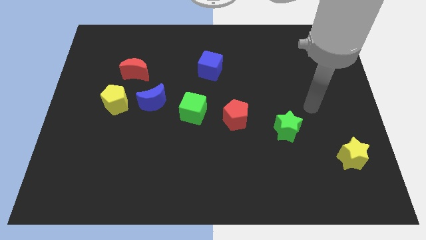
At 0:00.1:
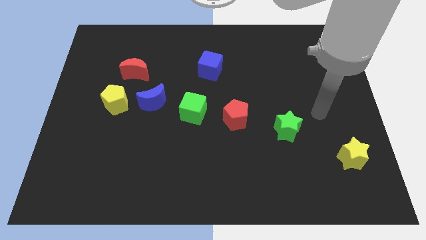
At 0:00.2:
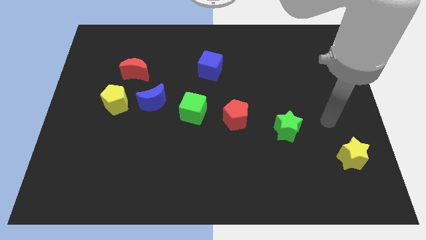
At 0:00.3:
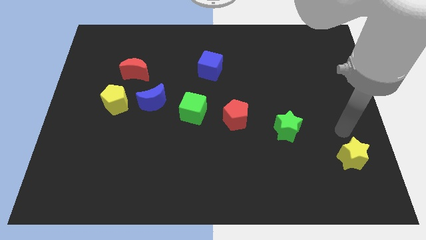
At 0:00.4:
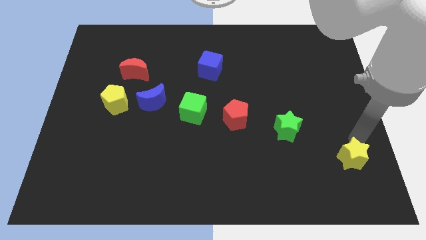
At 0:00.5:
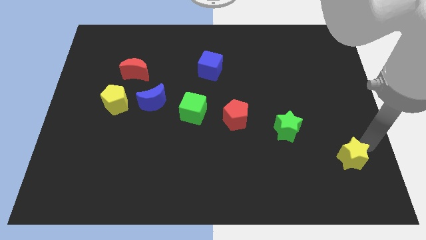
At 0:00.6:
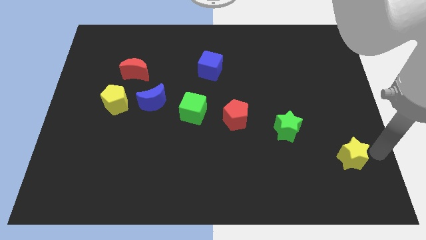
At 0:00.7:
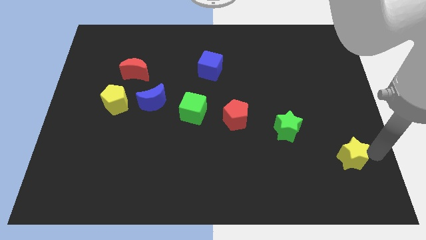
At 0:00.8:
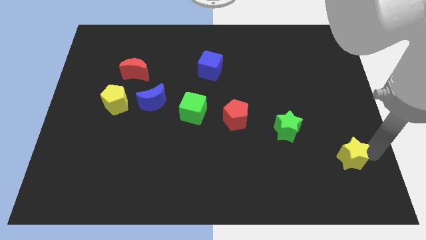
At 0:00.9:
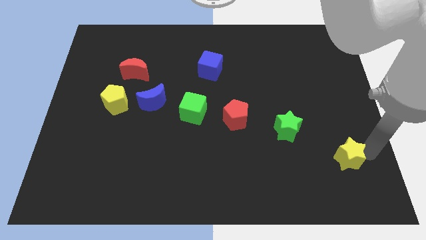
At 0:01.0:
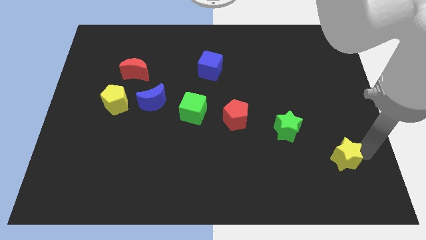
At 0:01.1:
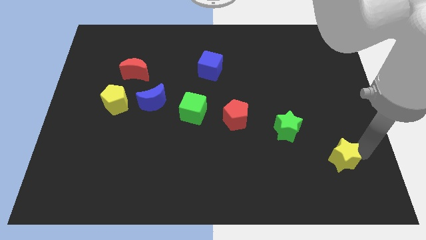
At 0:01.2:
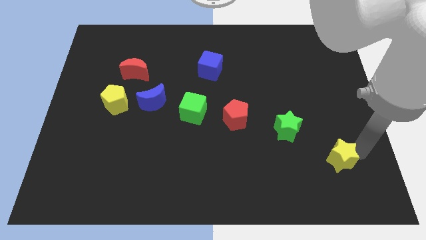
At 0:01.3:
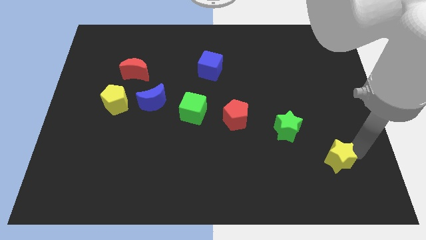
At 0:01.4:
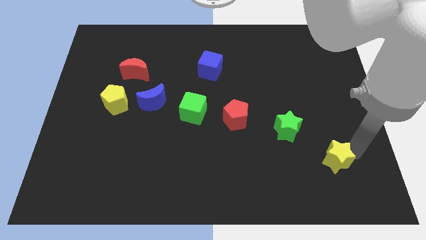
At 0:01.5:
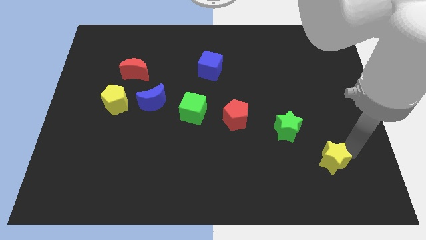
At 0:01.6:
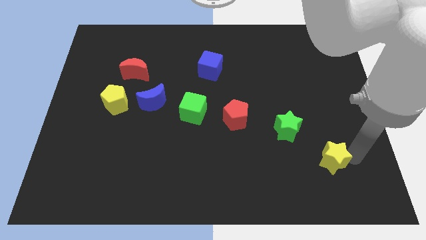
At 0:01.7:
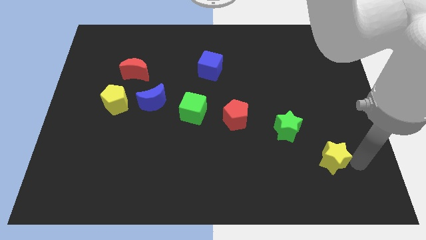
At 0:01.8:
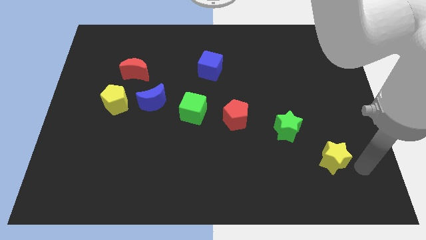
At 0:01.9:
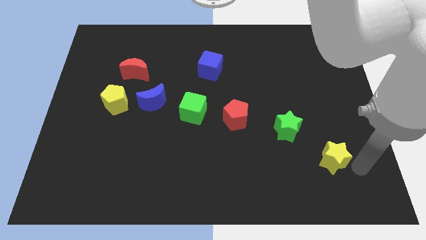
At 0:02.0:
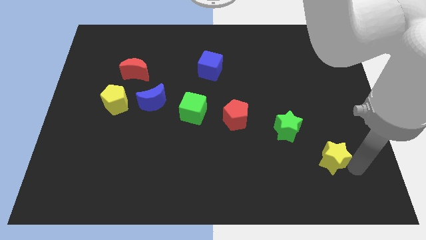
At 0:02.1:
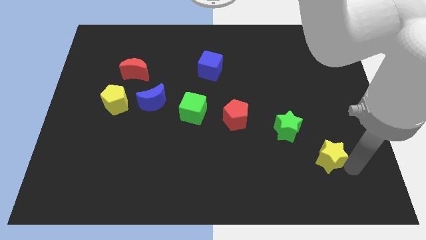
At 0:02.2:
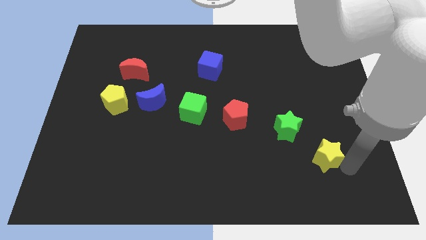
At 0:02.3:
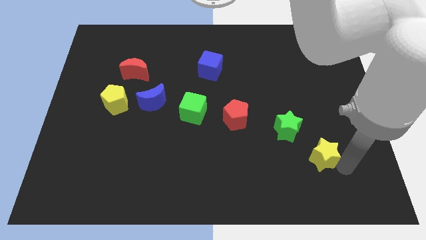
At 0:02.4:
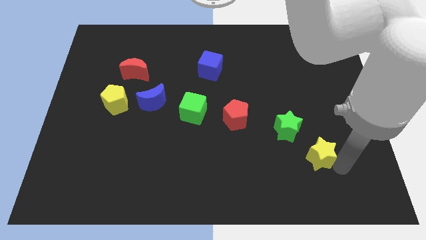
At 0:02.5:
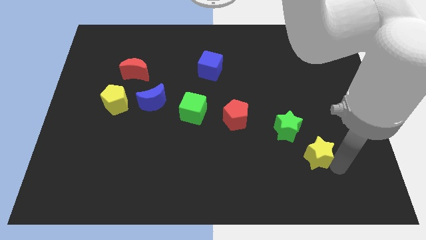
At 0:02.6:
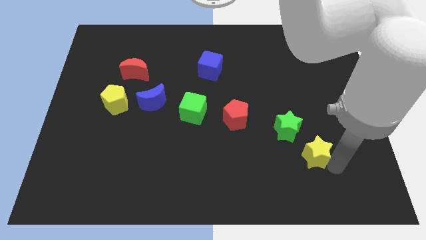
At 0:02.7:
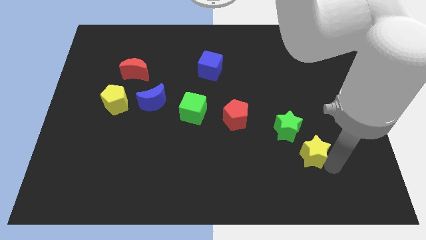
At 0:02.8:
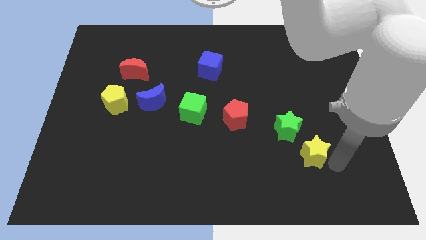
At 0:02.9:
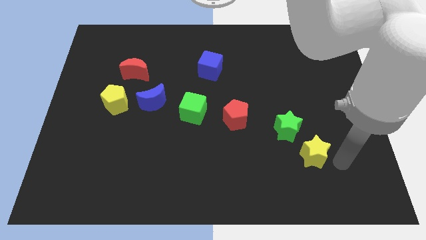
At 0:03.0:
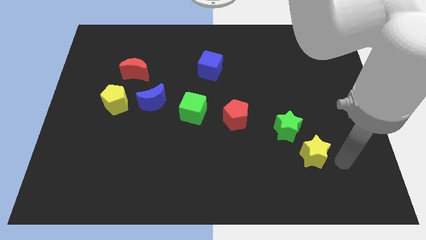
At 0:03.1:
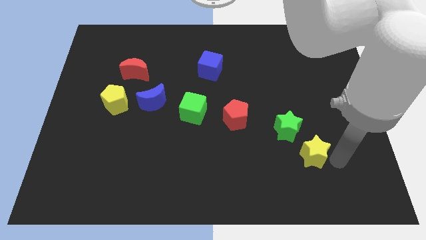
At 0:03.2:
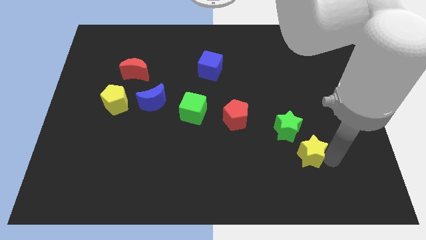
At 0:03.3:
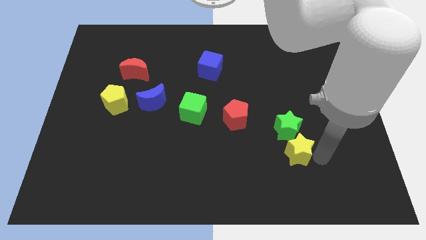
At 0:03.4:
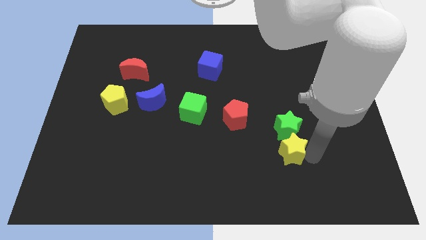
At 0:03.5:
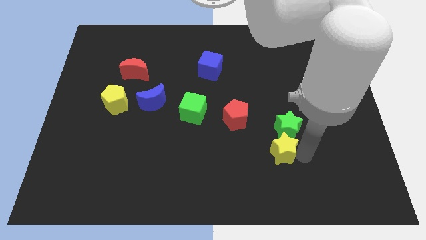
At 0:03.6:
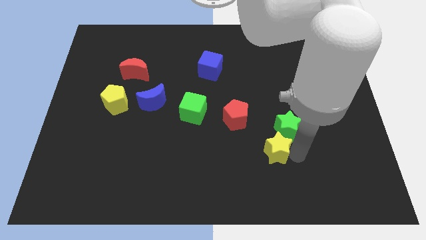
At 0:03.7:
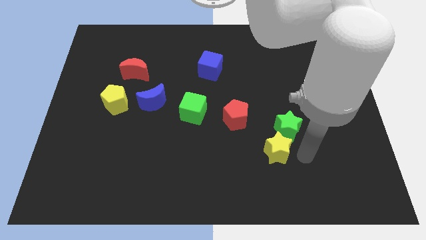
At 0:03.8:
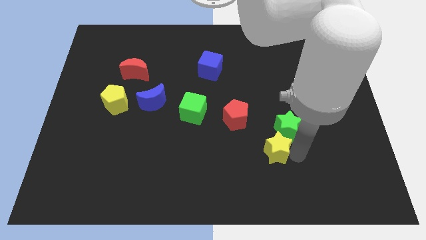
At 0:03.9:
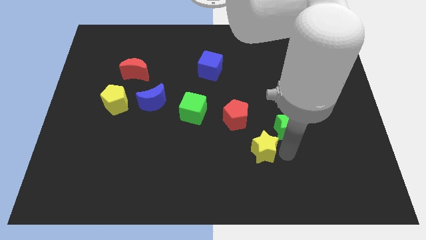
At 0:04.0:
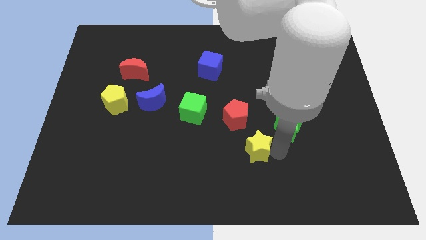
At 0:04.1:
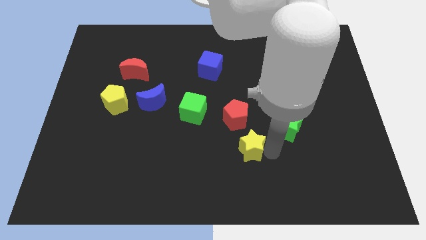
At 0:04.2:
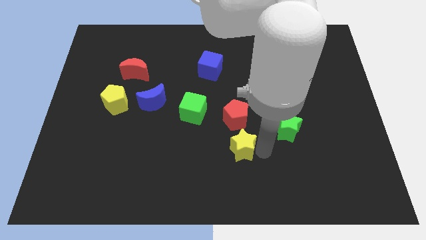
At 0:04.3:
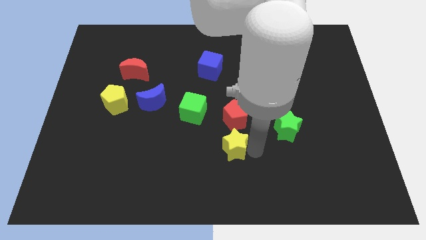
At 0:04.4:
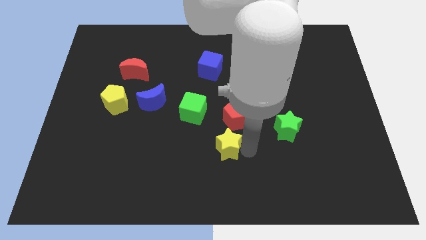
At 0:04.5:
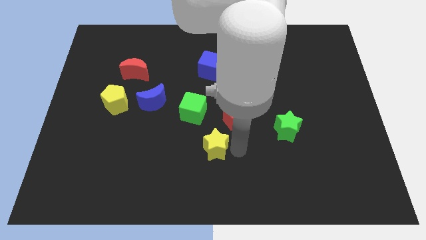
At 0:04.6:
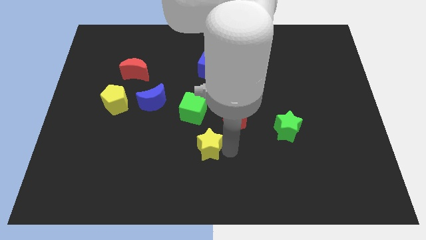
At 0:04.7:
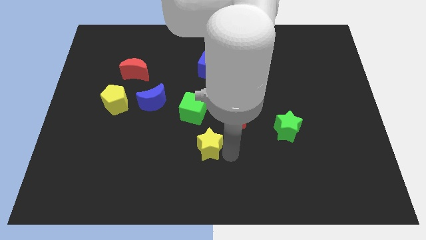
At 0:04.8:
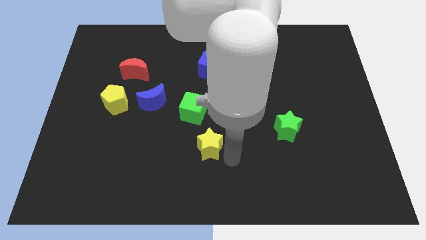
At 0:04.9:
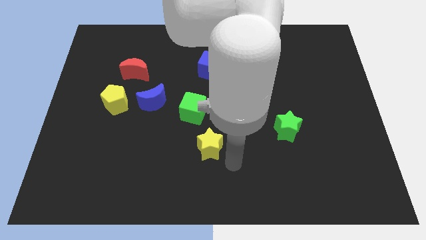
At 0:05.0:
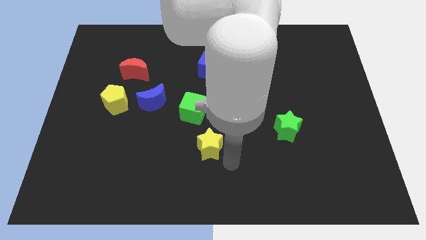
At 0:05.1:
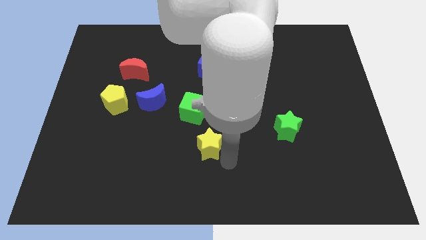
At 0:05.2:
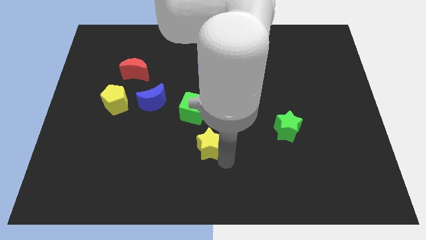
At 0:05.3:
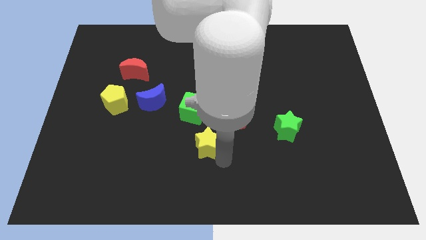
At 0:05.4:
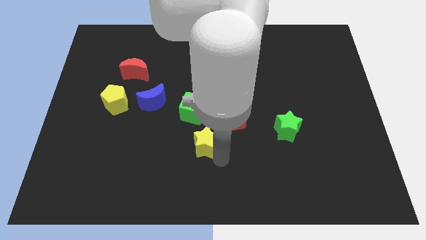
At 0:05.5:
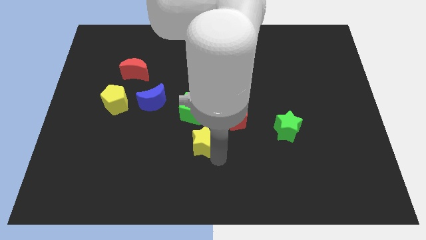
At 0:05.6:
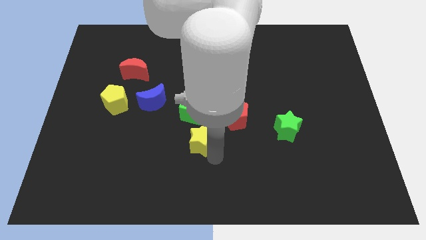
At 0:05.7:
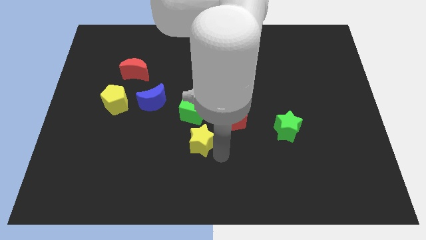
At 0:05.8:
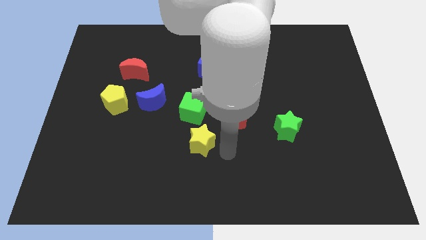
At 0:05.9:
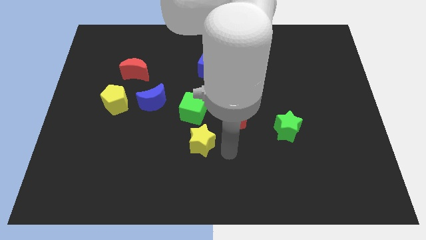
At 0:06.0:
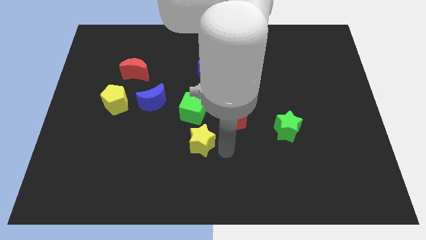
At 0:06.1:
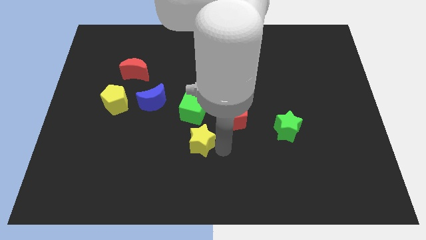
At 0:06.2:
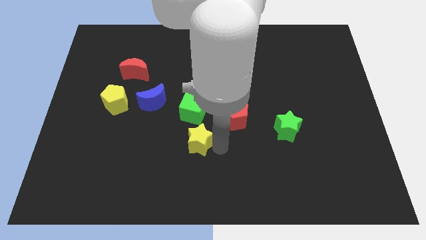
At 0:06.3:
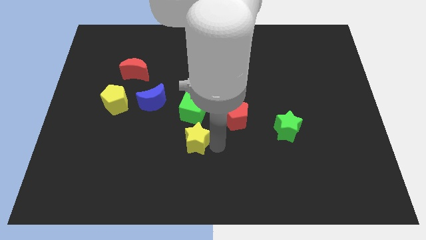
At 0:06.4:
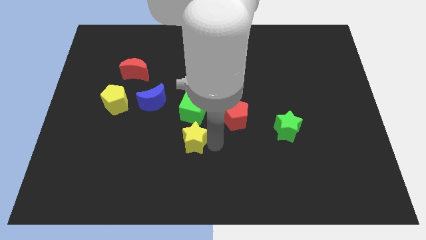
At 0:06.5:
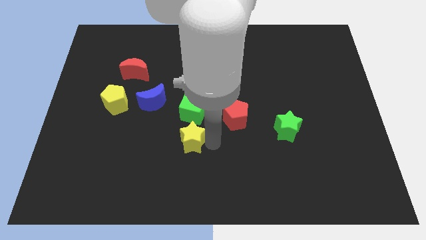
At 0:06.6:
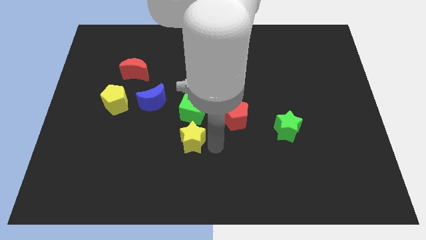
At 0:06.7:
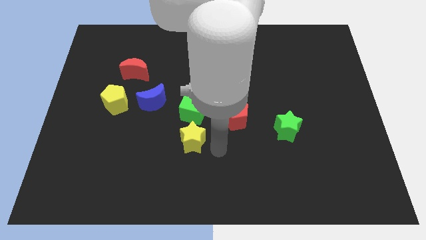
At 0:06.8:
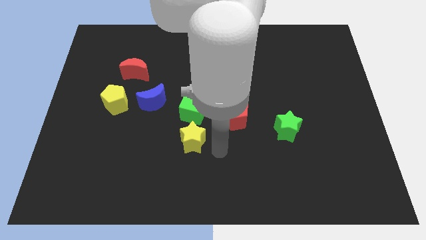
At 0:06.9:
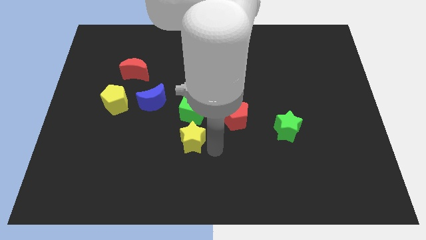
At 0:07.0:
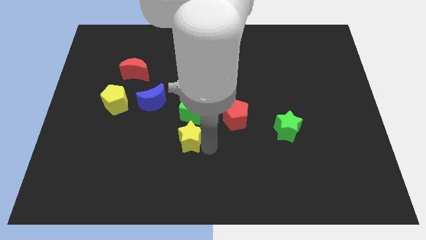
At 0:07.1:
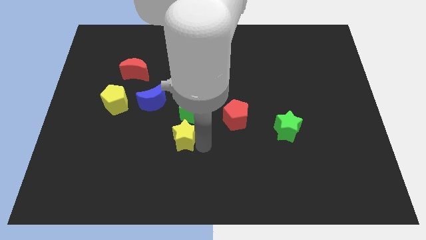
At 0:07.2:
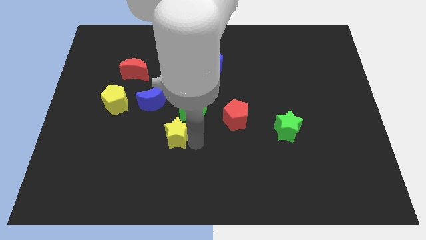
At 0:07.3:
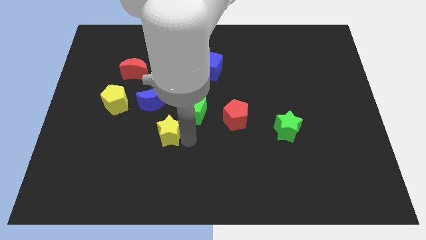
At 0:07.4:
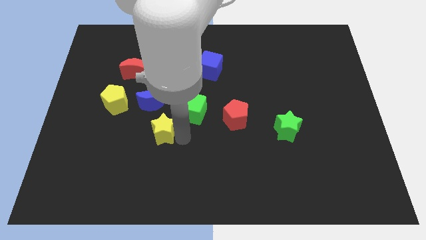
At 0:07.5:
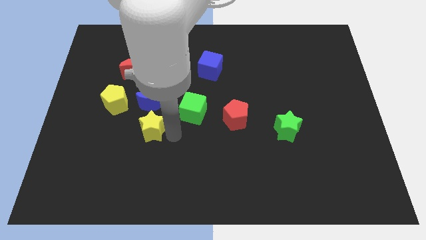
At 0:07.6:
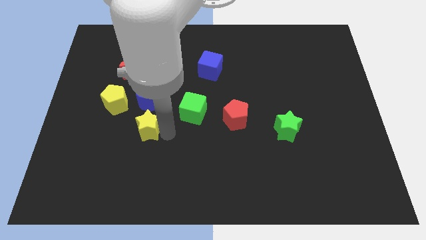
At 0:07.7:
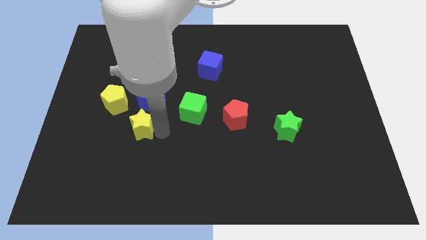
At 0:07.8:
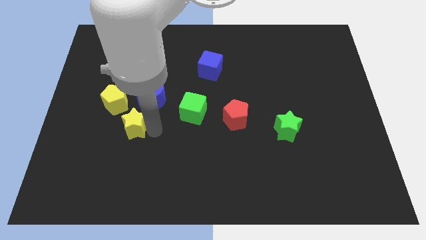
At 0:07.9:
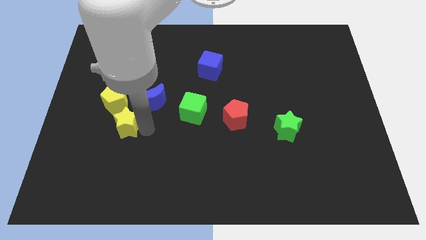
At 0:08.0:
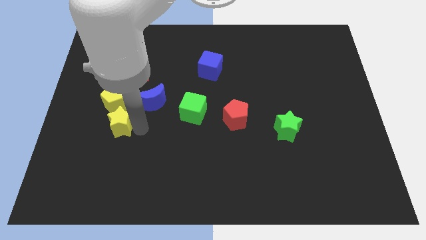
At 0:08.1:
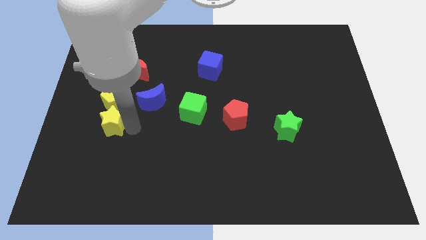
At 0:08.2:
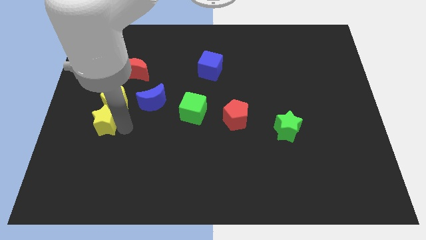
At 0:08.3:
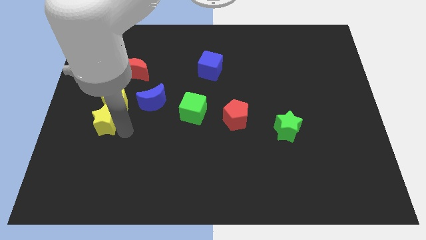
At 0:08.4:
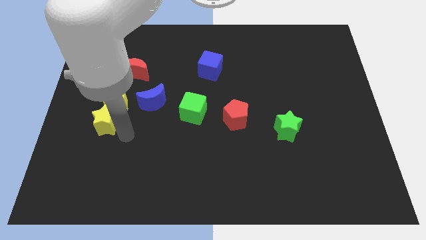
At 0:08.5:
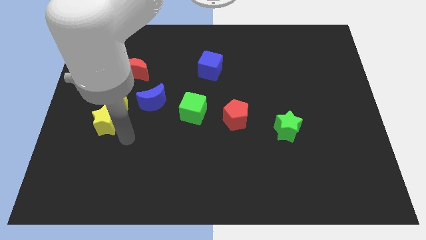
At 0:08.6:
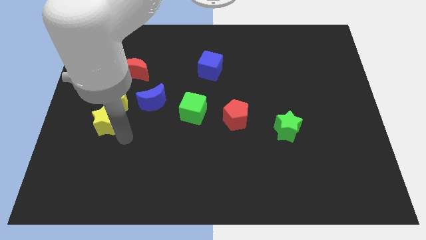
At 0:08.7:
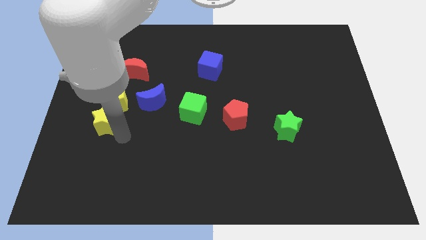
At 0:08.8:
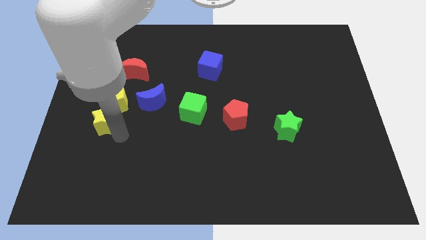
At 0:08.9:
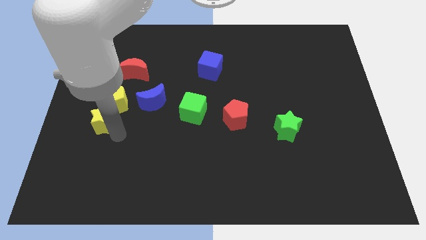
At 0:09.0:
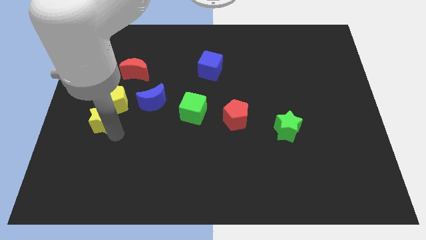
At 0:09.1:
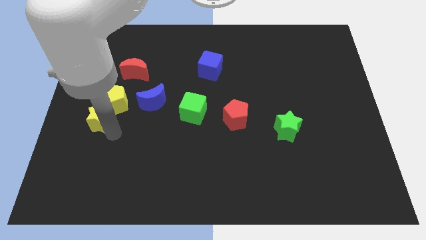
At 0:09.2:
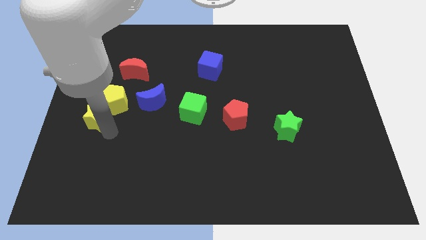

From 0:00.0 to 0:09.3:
slide the yellow star to the center left
